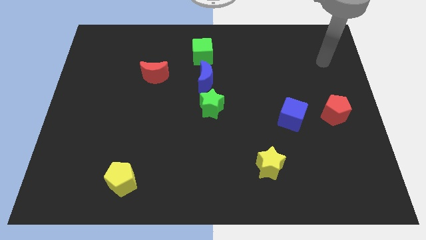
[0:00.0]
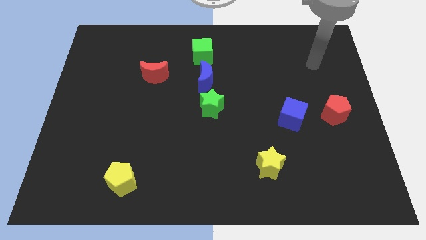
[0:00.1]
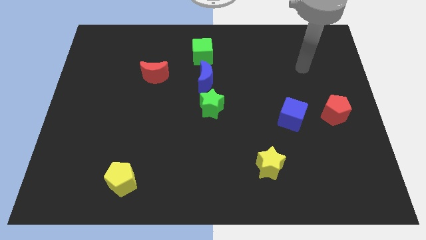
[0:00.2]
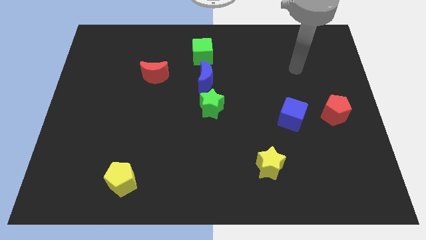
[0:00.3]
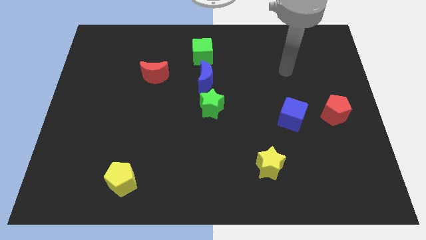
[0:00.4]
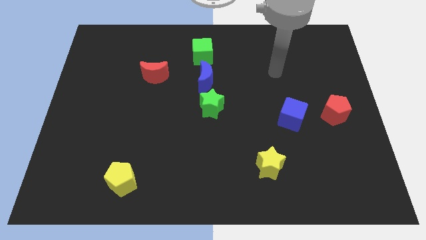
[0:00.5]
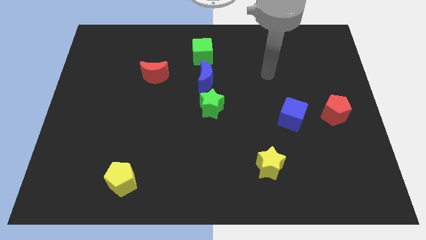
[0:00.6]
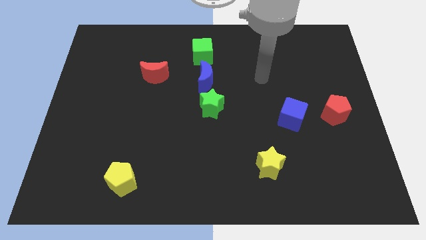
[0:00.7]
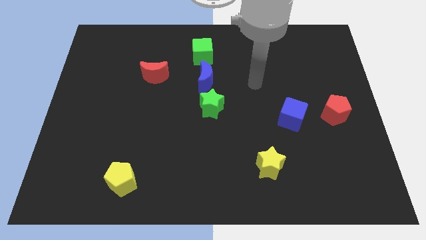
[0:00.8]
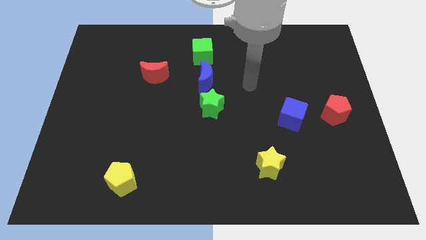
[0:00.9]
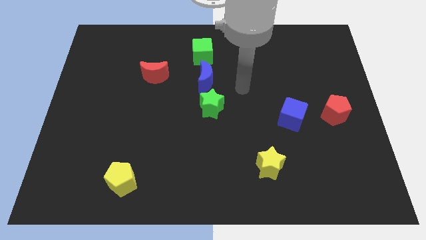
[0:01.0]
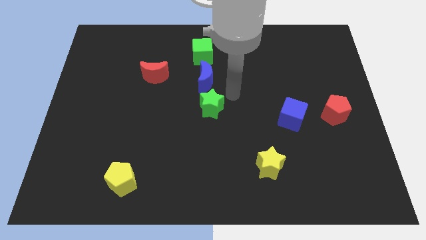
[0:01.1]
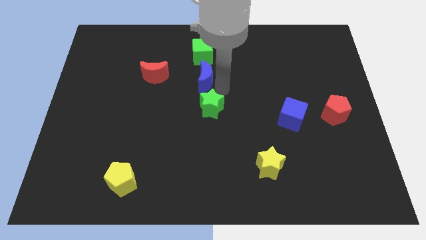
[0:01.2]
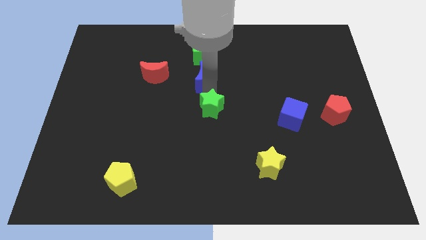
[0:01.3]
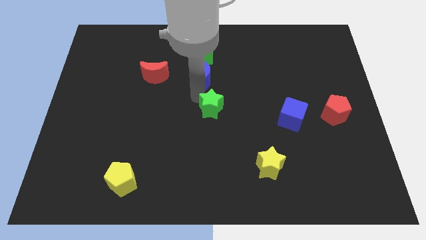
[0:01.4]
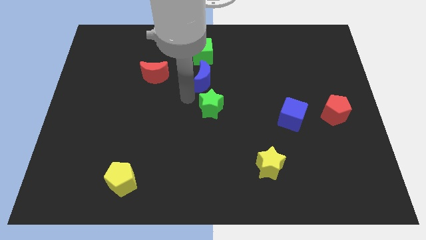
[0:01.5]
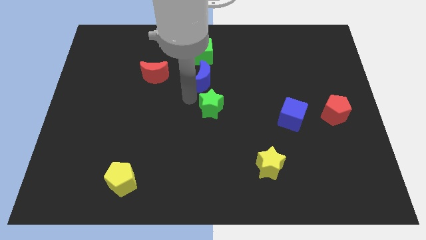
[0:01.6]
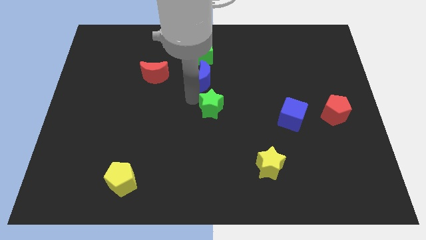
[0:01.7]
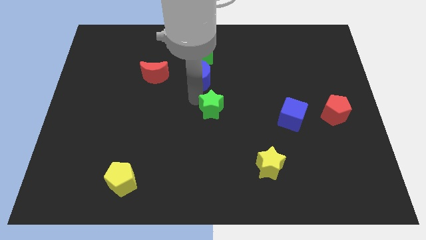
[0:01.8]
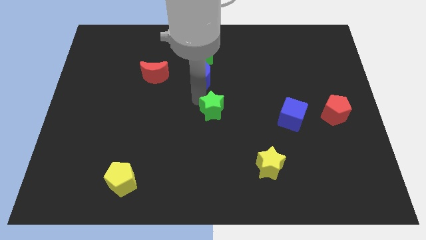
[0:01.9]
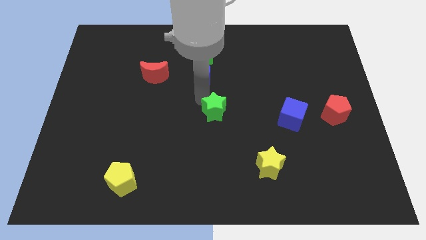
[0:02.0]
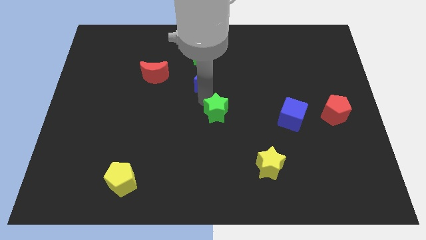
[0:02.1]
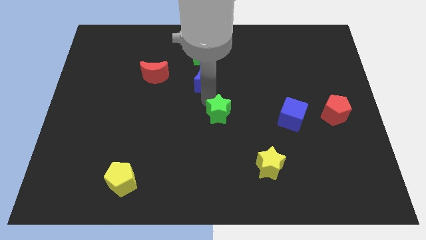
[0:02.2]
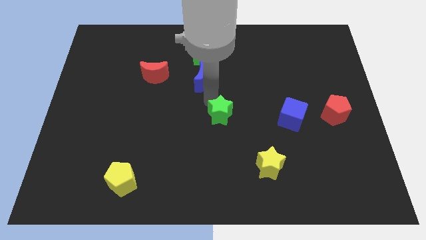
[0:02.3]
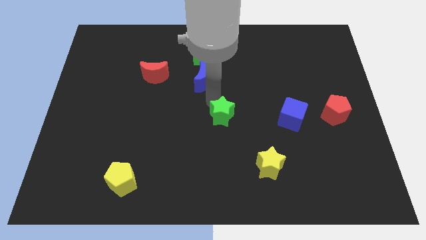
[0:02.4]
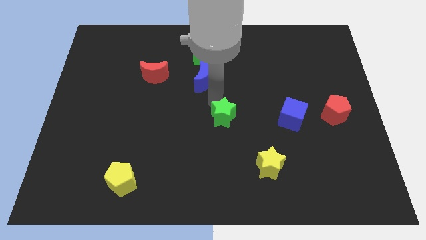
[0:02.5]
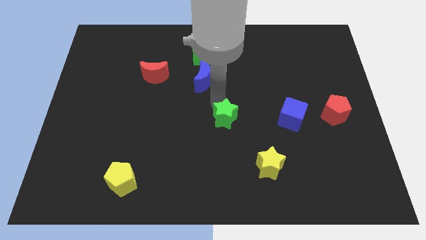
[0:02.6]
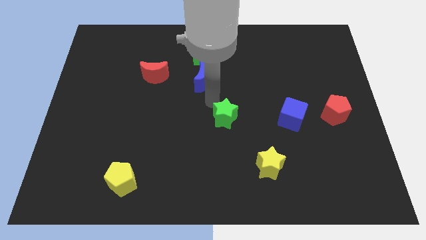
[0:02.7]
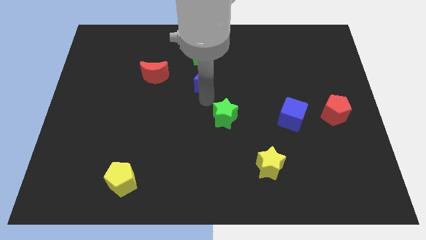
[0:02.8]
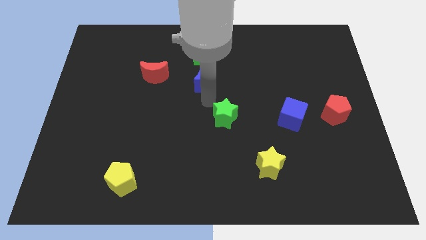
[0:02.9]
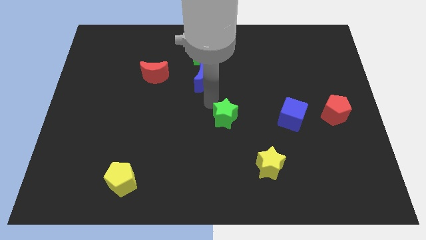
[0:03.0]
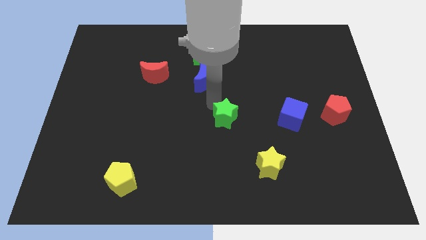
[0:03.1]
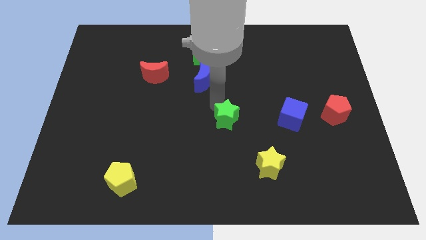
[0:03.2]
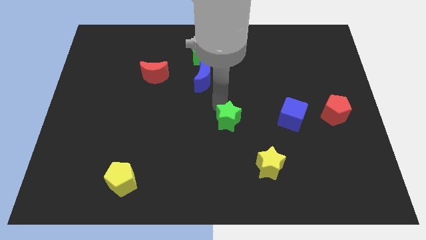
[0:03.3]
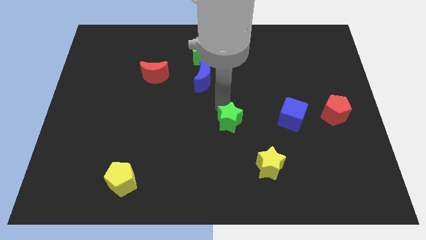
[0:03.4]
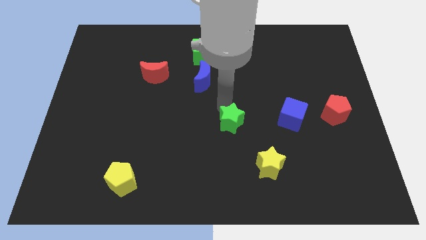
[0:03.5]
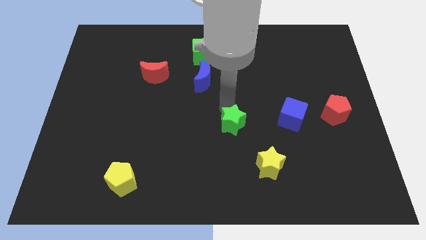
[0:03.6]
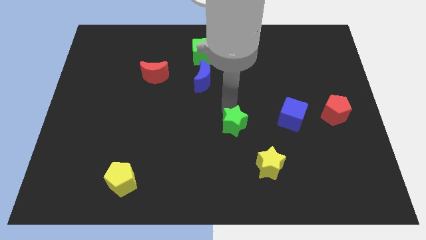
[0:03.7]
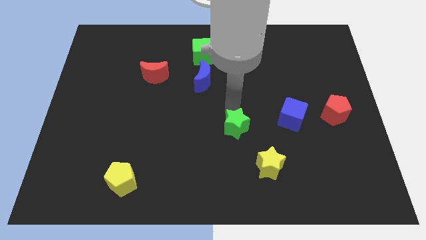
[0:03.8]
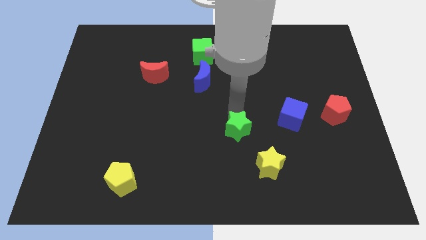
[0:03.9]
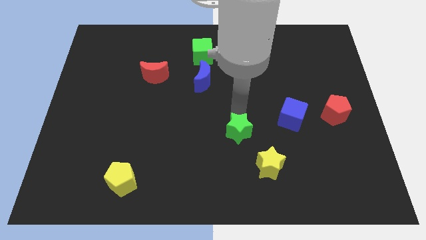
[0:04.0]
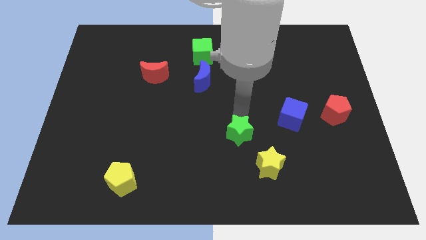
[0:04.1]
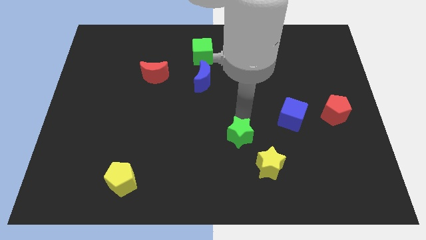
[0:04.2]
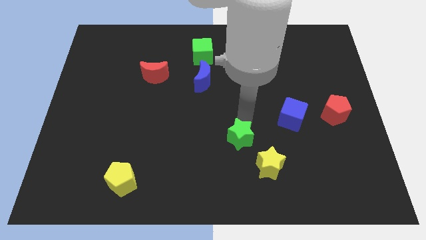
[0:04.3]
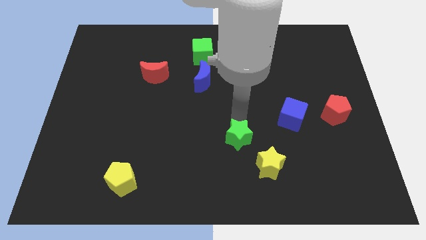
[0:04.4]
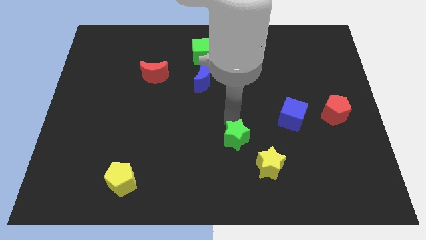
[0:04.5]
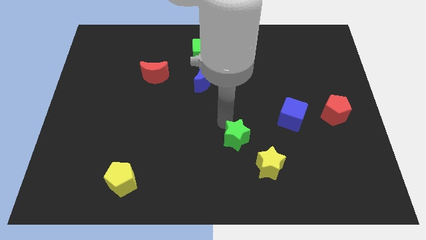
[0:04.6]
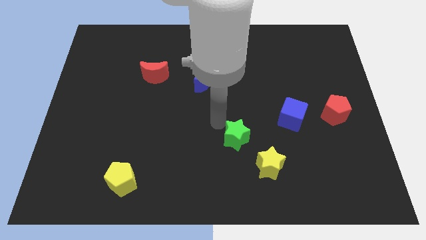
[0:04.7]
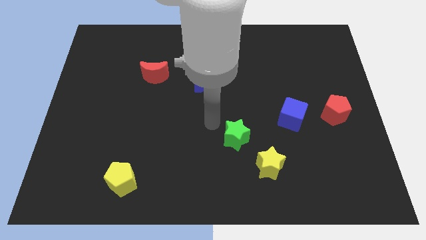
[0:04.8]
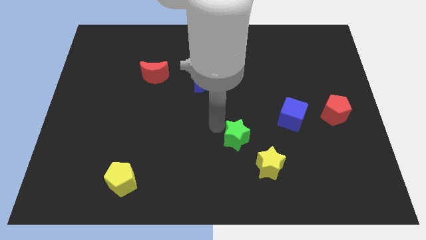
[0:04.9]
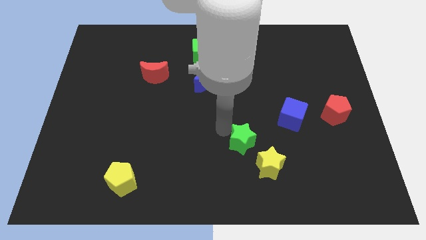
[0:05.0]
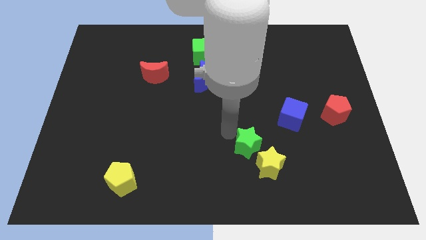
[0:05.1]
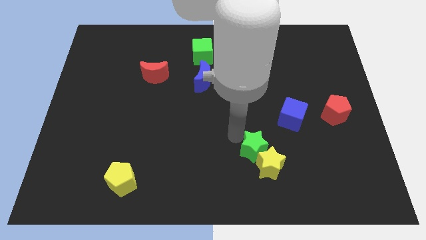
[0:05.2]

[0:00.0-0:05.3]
push the green star towards the yellow star

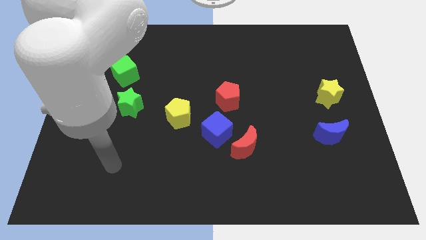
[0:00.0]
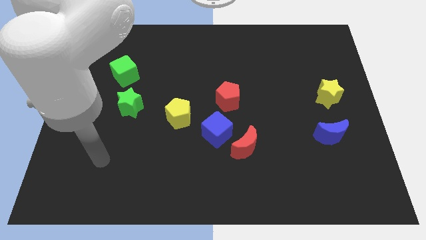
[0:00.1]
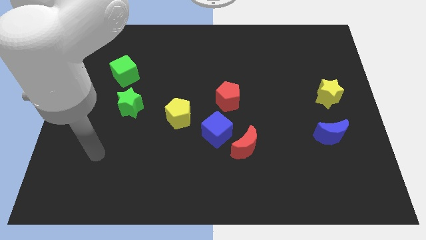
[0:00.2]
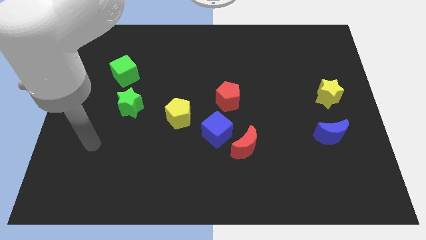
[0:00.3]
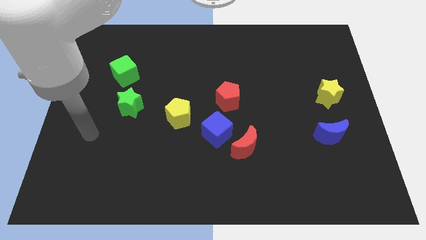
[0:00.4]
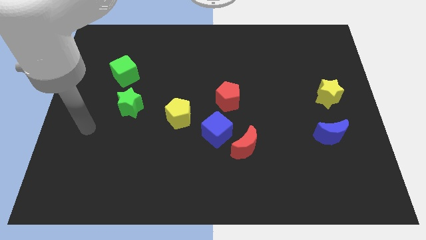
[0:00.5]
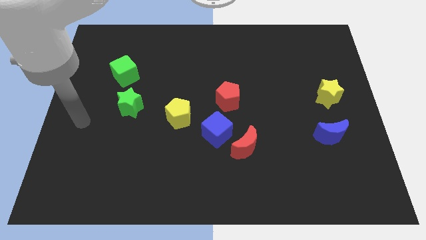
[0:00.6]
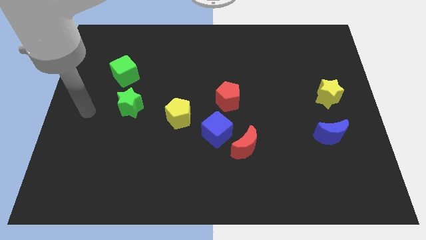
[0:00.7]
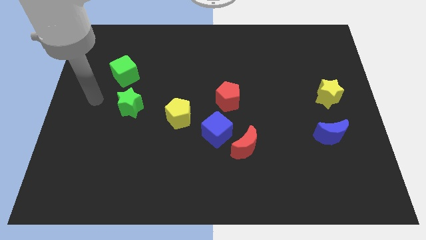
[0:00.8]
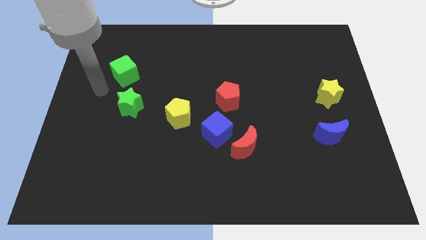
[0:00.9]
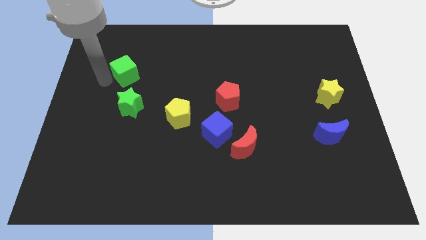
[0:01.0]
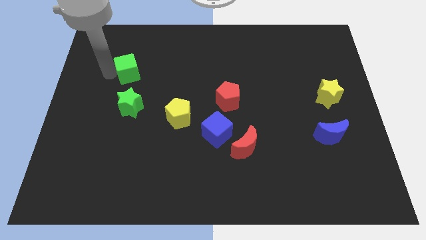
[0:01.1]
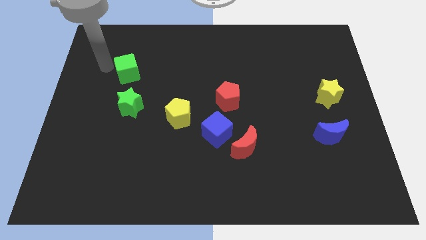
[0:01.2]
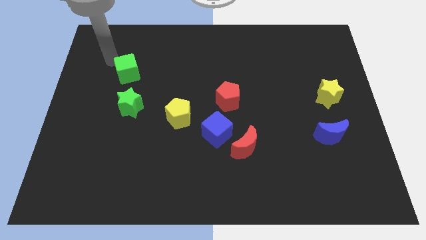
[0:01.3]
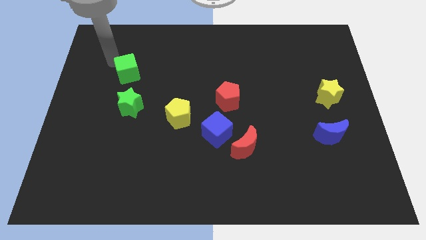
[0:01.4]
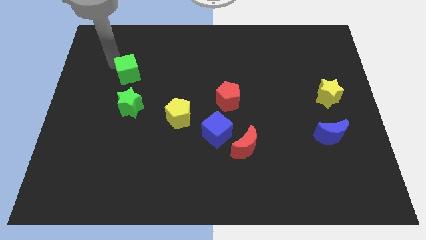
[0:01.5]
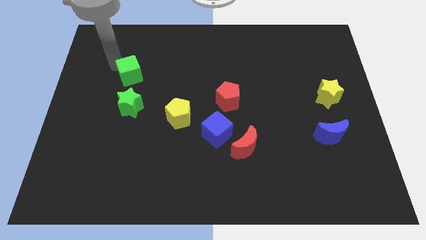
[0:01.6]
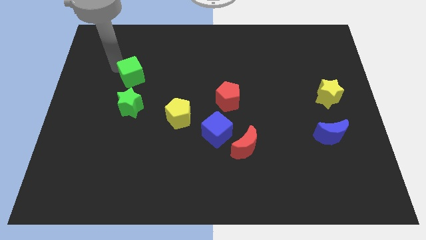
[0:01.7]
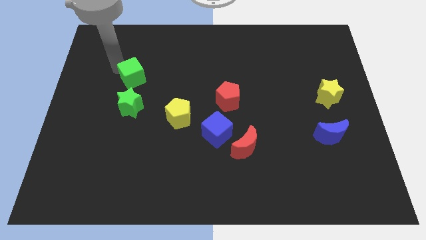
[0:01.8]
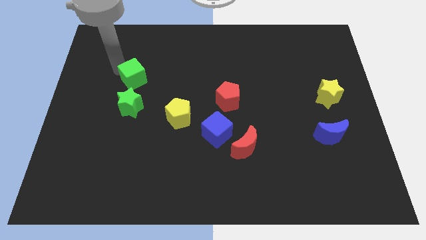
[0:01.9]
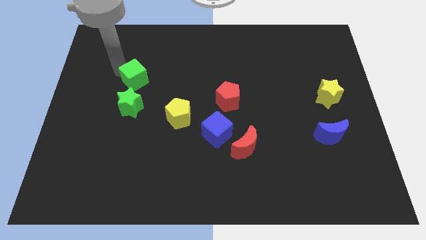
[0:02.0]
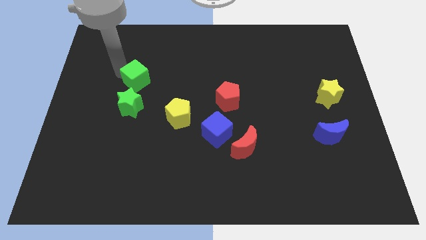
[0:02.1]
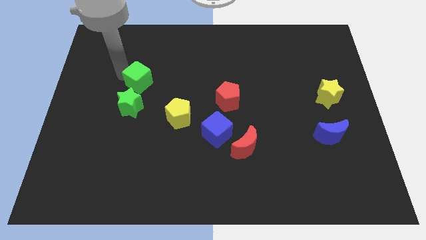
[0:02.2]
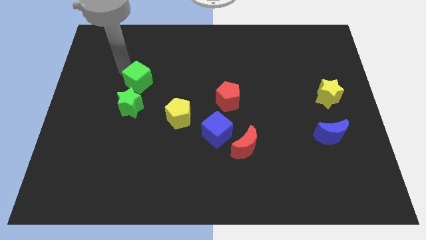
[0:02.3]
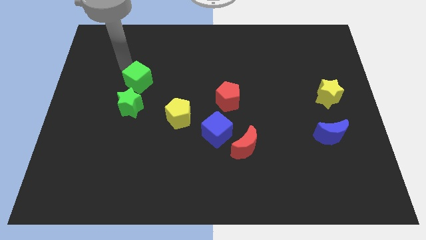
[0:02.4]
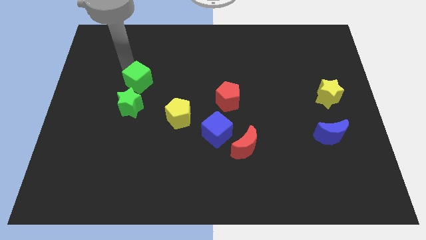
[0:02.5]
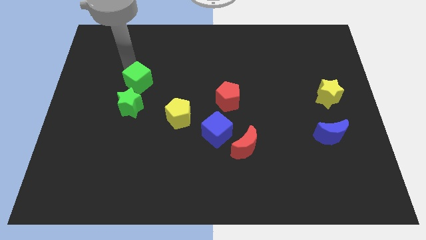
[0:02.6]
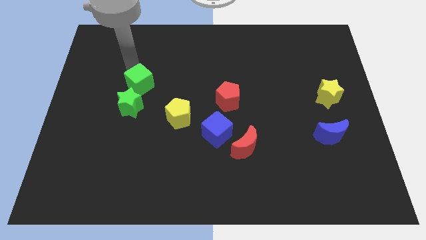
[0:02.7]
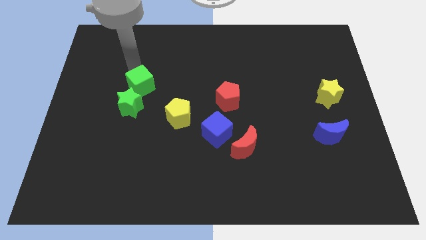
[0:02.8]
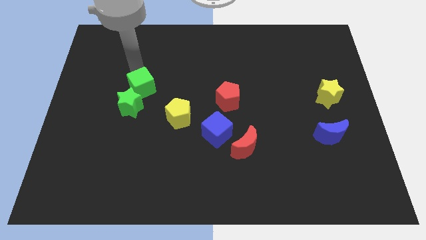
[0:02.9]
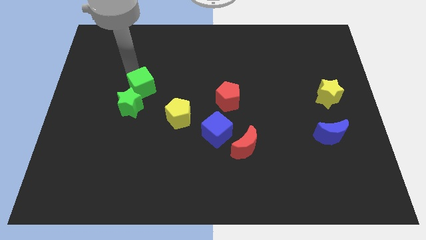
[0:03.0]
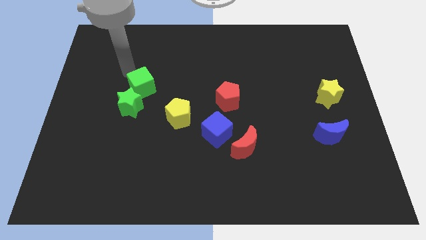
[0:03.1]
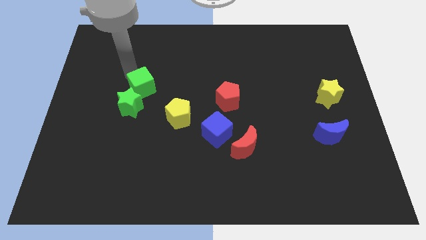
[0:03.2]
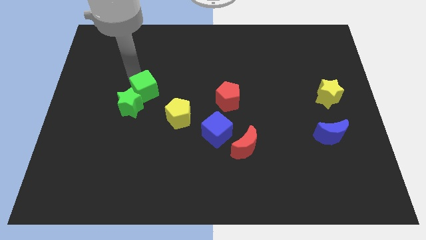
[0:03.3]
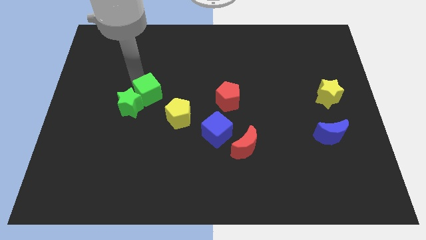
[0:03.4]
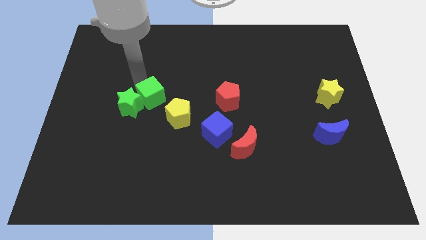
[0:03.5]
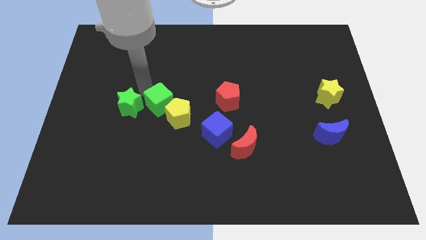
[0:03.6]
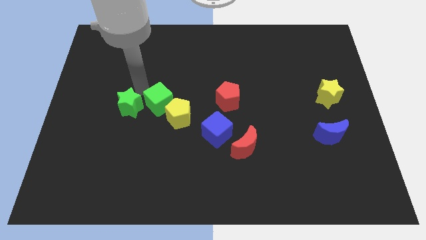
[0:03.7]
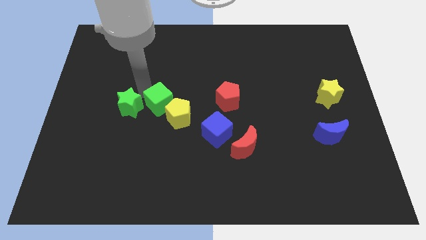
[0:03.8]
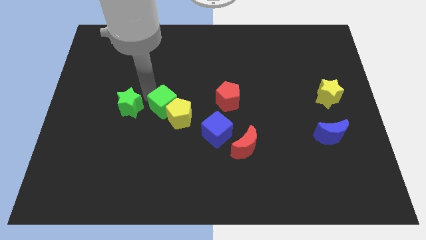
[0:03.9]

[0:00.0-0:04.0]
move the green cube next to the yellow pentagon
